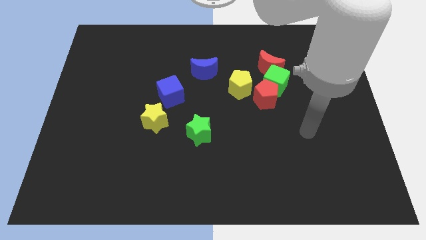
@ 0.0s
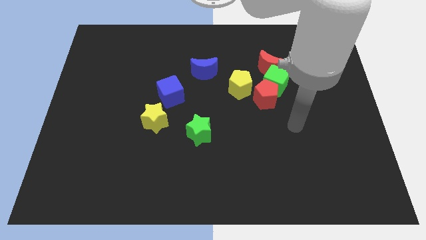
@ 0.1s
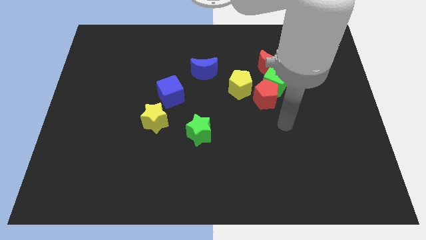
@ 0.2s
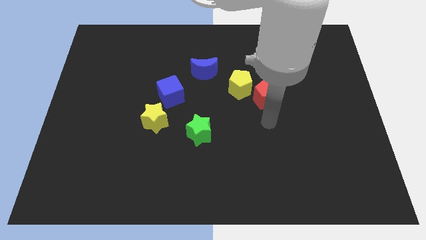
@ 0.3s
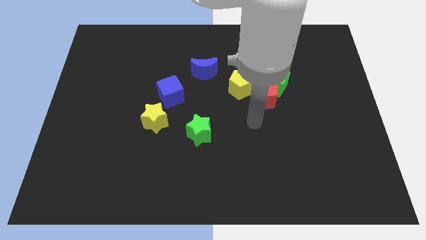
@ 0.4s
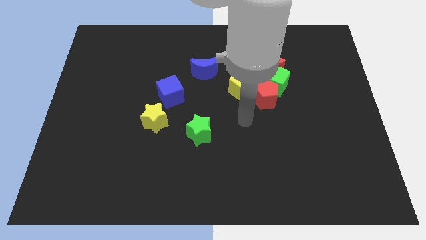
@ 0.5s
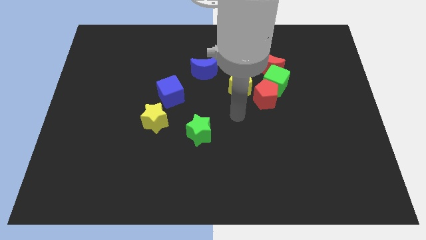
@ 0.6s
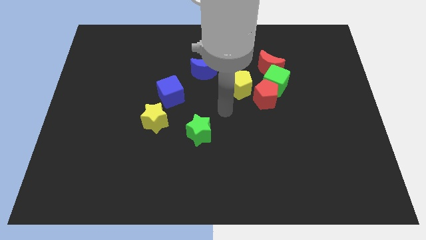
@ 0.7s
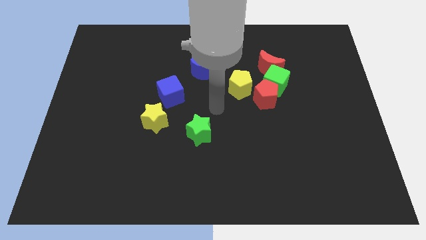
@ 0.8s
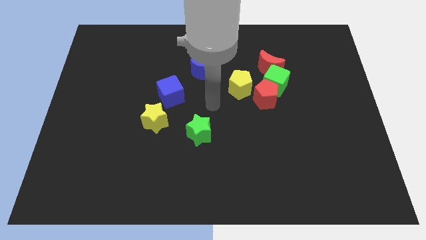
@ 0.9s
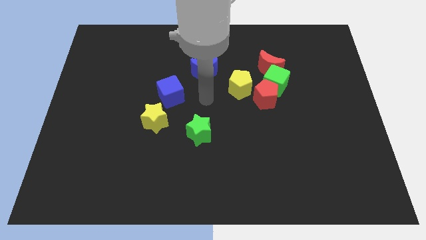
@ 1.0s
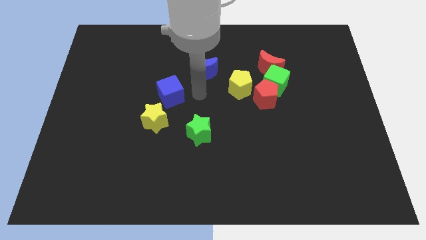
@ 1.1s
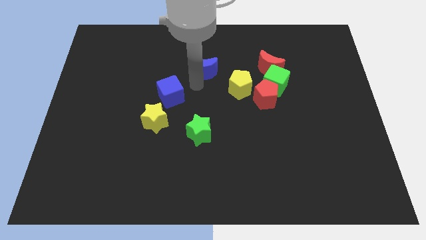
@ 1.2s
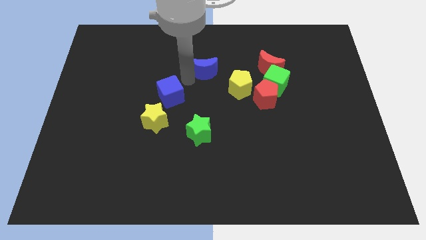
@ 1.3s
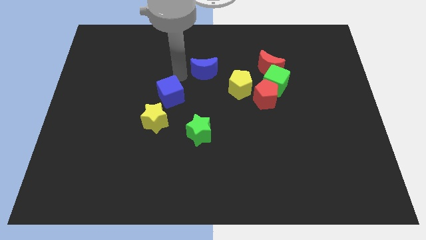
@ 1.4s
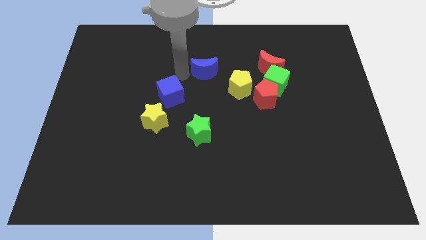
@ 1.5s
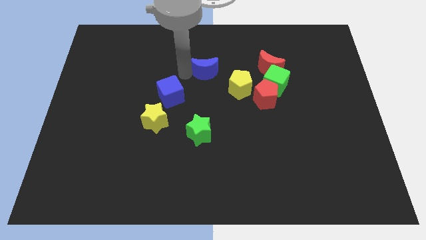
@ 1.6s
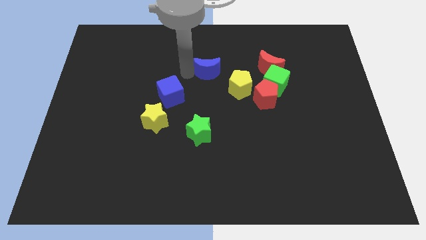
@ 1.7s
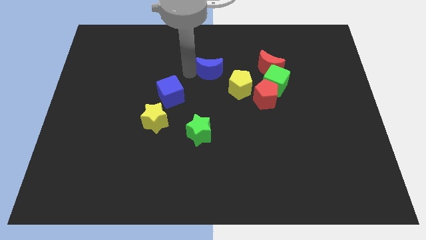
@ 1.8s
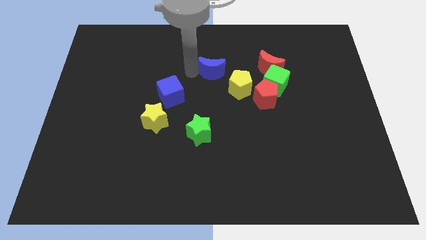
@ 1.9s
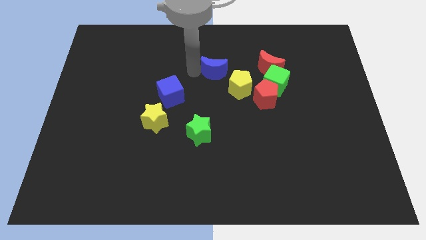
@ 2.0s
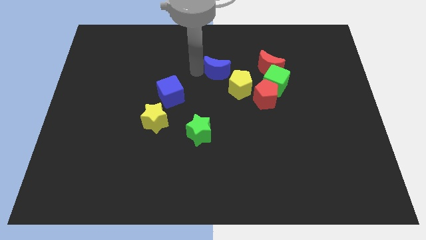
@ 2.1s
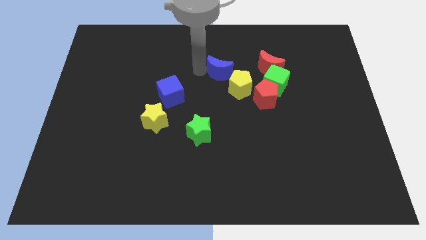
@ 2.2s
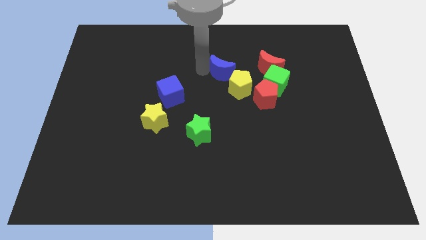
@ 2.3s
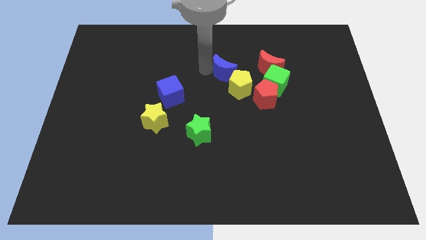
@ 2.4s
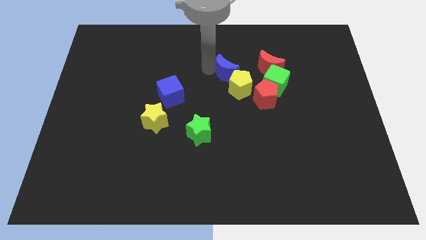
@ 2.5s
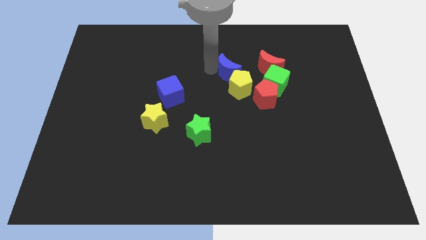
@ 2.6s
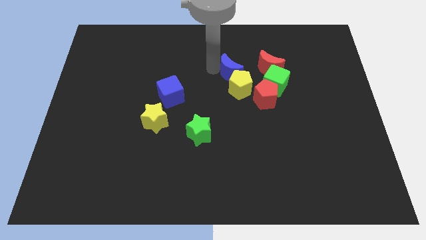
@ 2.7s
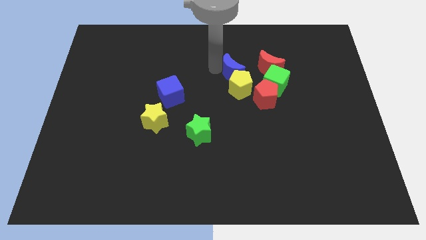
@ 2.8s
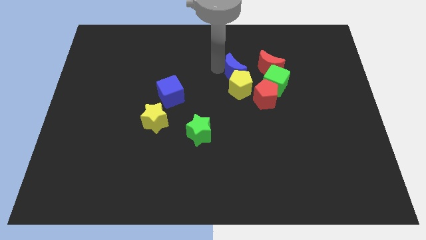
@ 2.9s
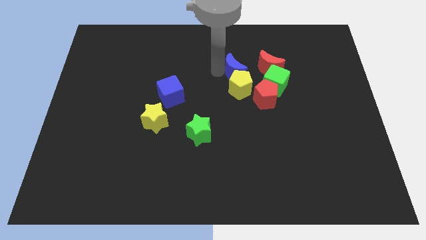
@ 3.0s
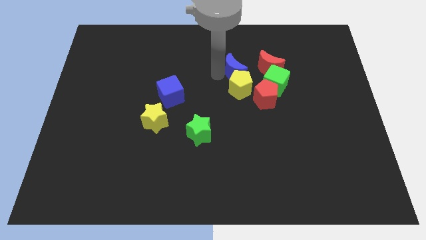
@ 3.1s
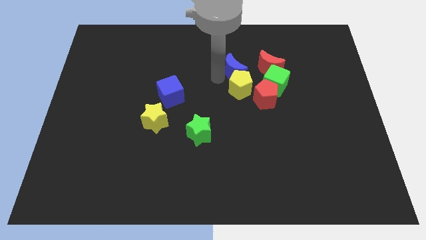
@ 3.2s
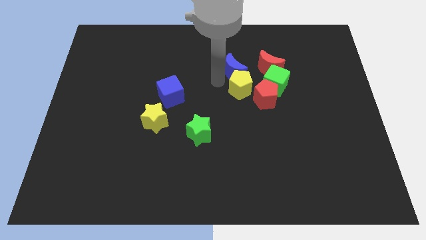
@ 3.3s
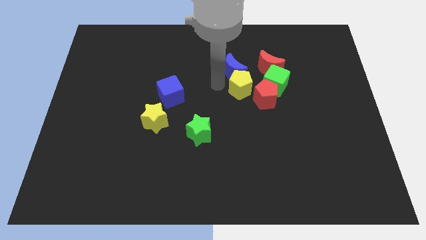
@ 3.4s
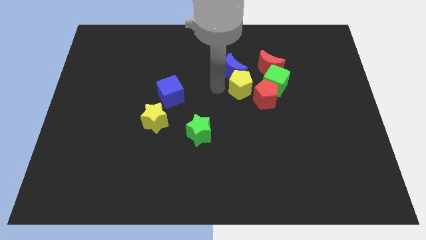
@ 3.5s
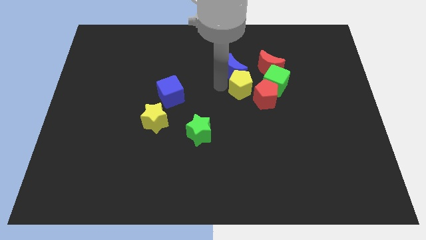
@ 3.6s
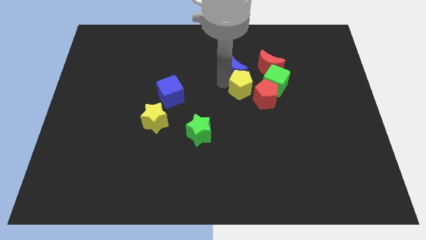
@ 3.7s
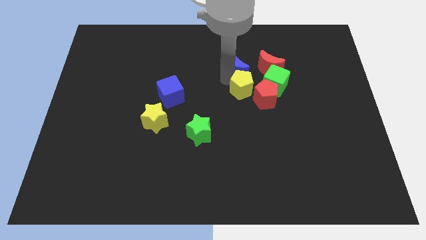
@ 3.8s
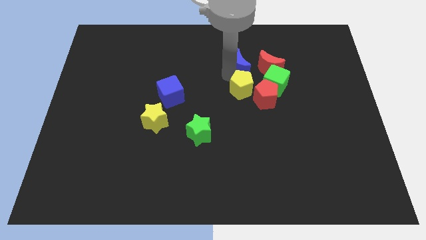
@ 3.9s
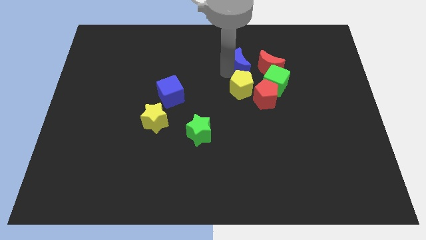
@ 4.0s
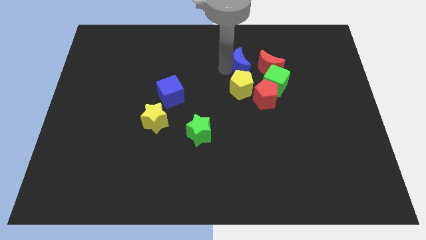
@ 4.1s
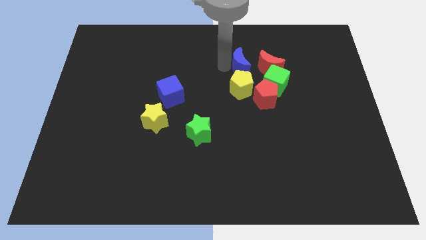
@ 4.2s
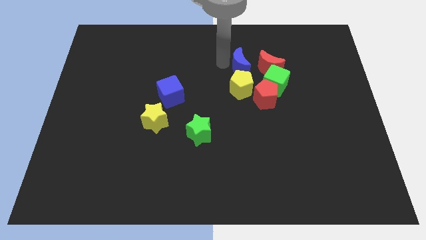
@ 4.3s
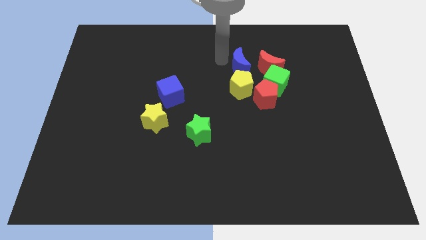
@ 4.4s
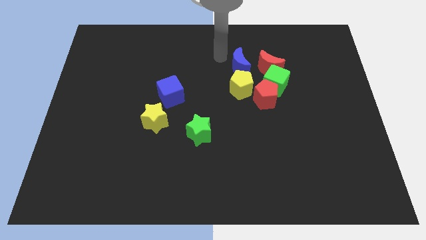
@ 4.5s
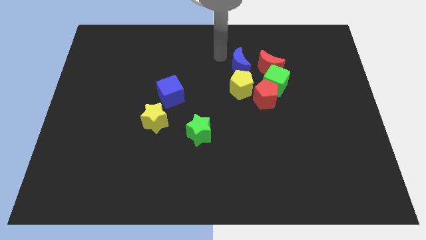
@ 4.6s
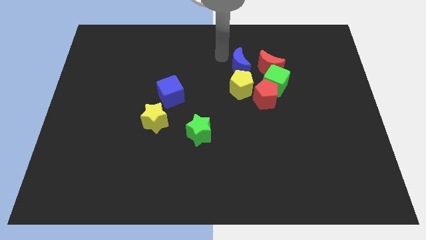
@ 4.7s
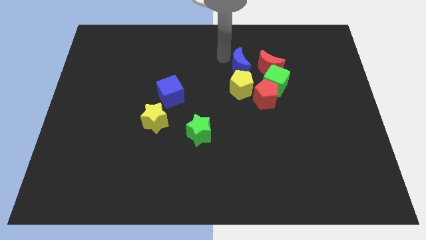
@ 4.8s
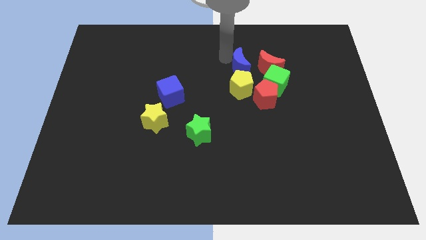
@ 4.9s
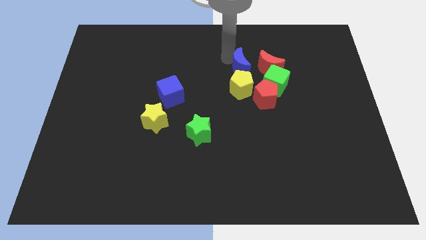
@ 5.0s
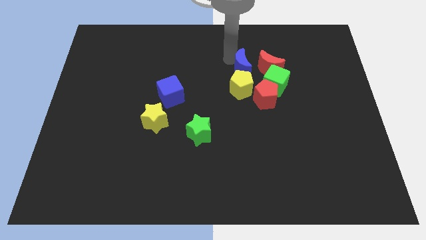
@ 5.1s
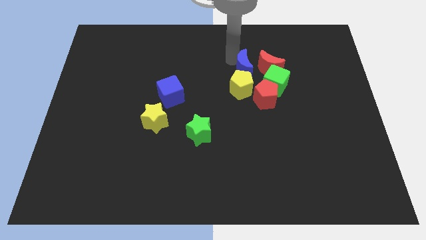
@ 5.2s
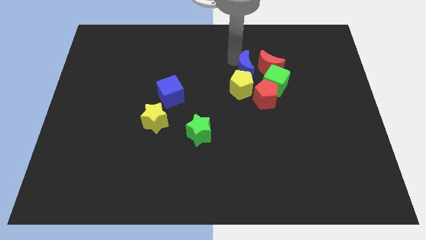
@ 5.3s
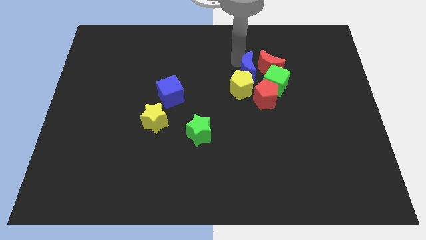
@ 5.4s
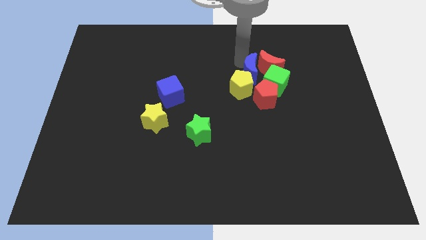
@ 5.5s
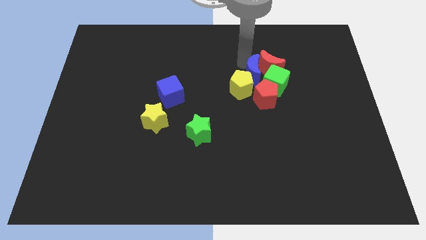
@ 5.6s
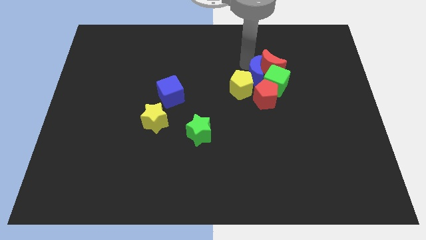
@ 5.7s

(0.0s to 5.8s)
move the blue moon next to the green cube
